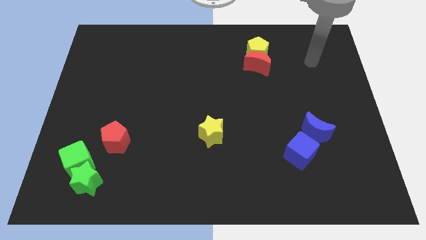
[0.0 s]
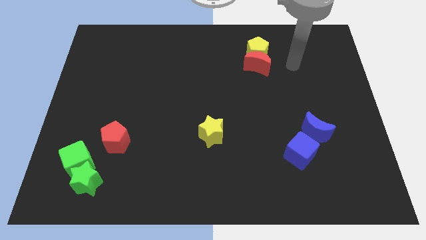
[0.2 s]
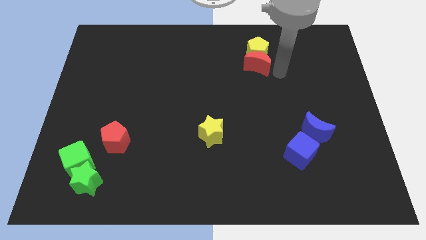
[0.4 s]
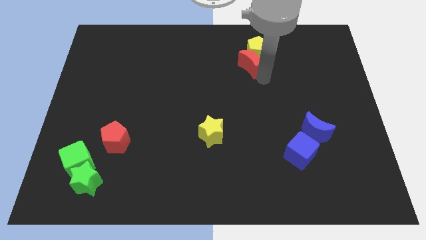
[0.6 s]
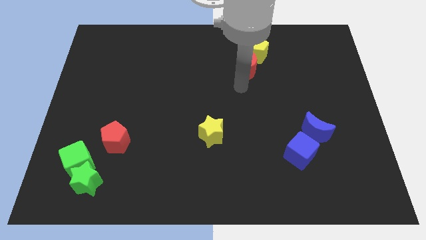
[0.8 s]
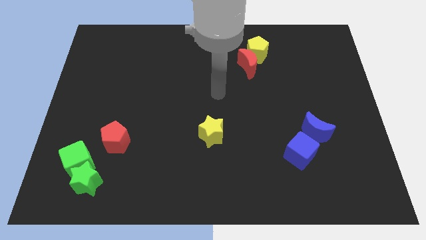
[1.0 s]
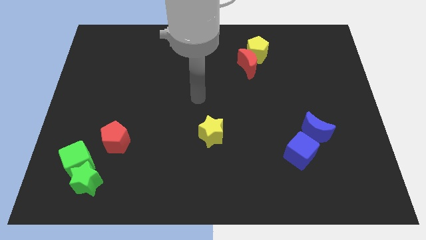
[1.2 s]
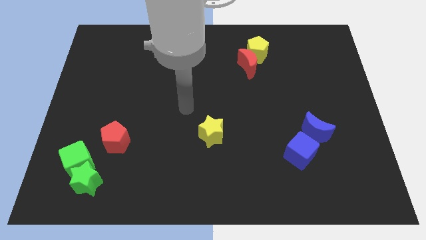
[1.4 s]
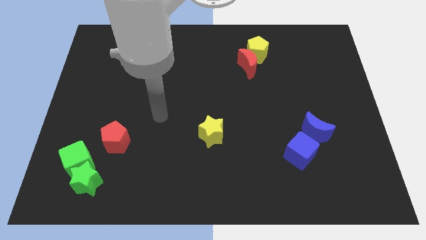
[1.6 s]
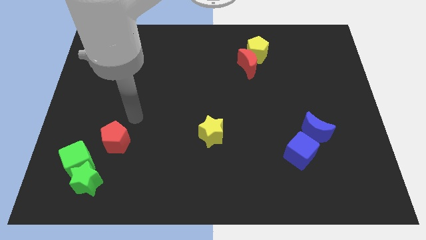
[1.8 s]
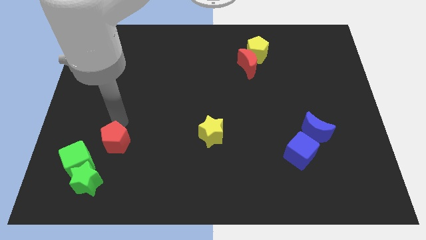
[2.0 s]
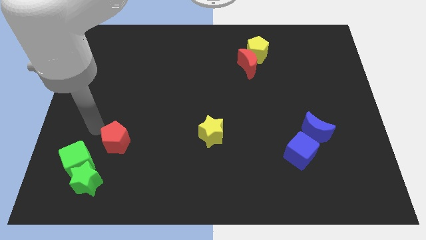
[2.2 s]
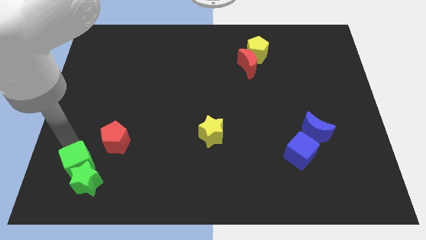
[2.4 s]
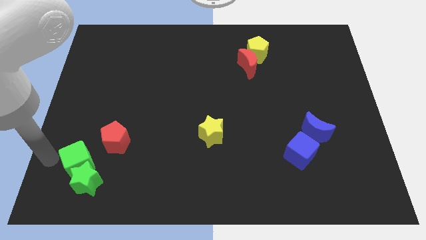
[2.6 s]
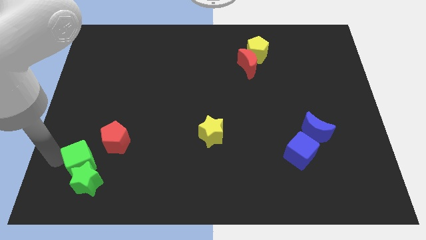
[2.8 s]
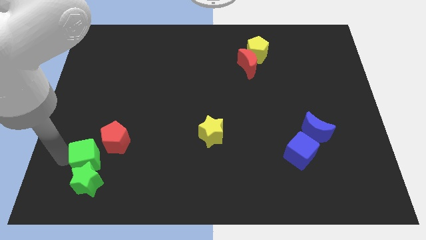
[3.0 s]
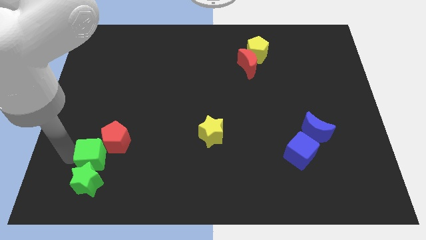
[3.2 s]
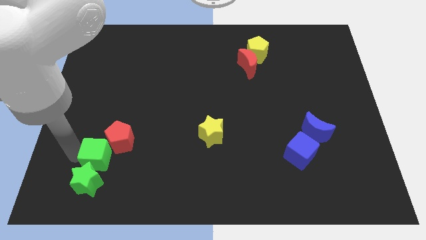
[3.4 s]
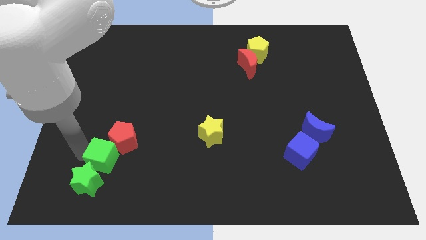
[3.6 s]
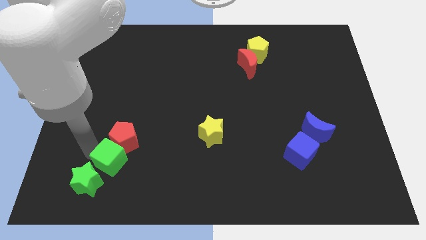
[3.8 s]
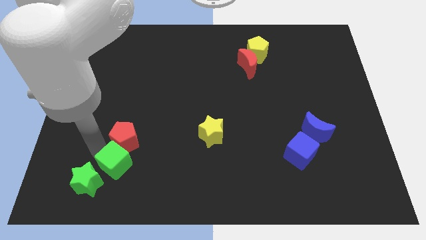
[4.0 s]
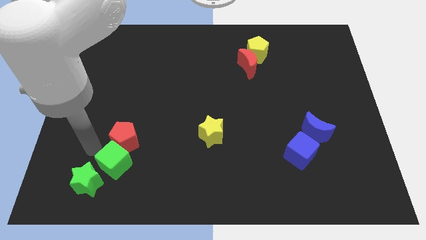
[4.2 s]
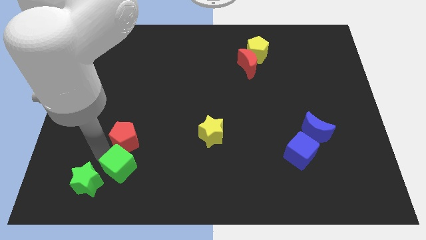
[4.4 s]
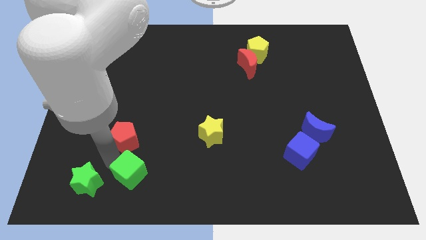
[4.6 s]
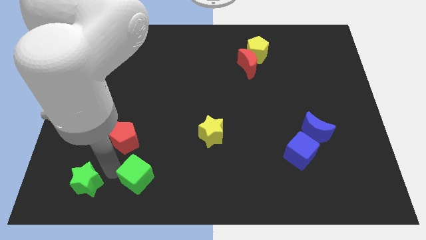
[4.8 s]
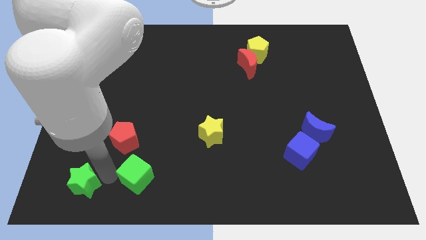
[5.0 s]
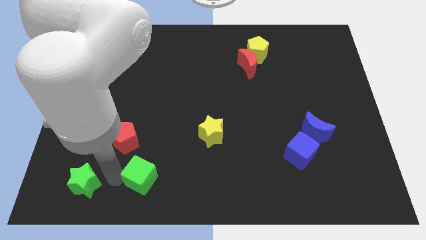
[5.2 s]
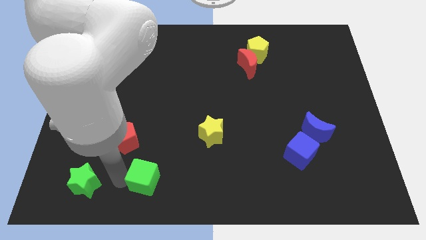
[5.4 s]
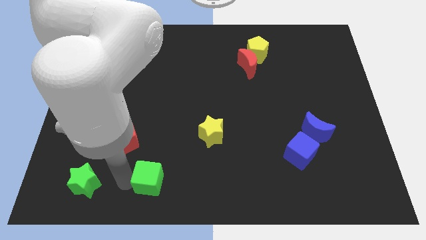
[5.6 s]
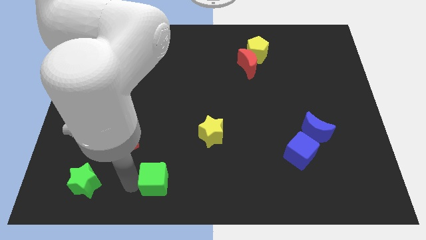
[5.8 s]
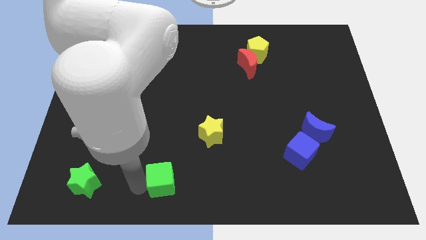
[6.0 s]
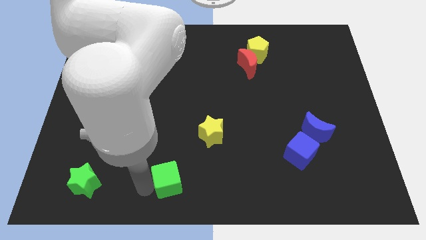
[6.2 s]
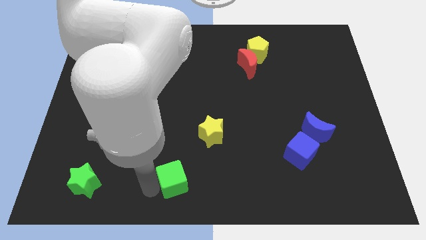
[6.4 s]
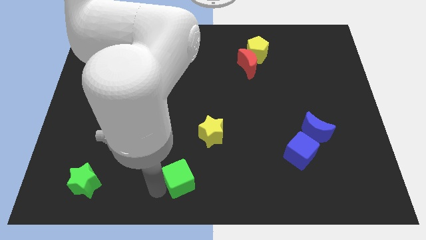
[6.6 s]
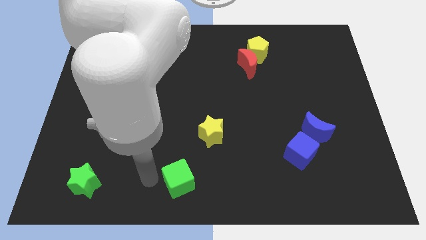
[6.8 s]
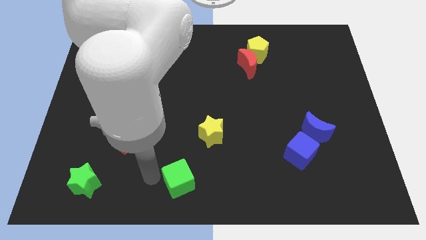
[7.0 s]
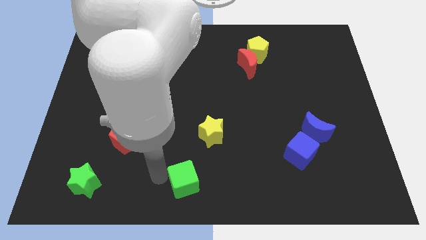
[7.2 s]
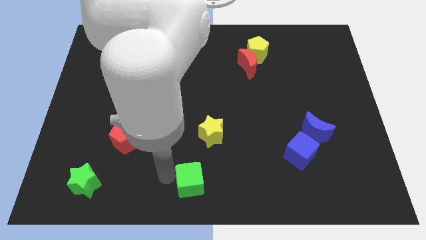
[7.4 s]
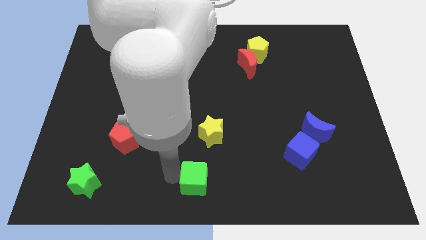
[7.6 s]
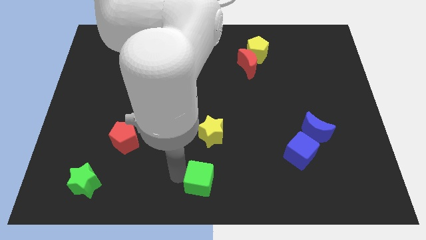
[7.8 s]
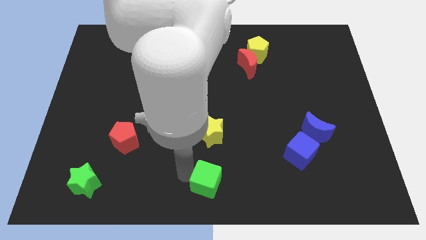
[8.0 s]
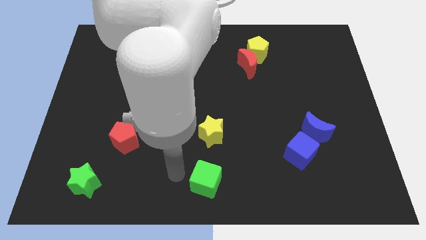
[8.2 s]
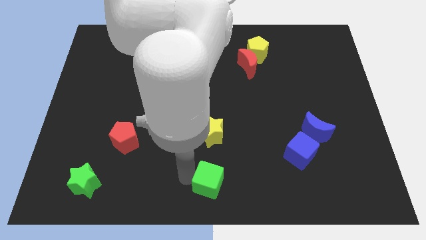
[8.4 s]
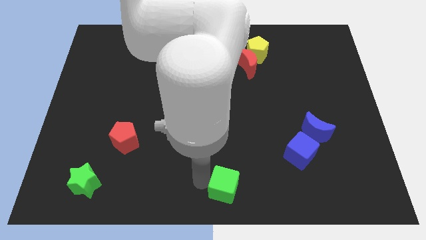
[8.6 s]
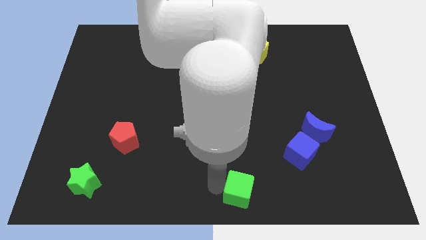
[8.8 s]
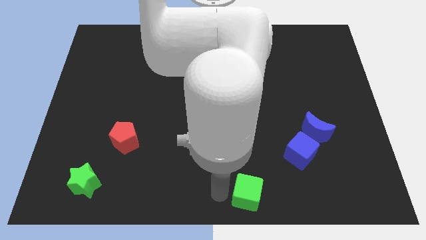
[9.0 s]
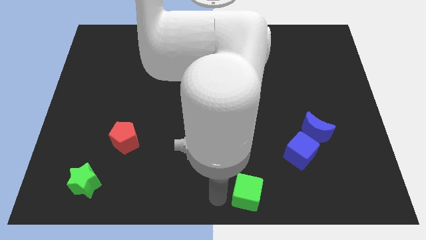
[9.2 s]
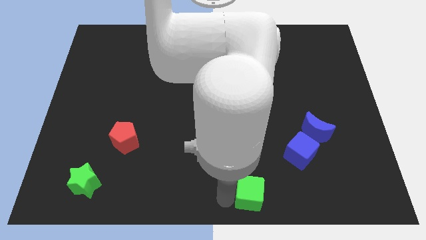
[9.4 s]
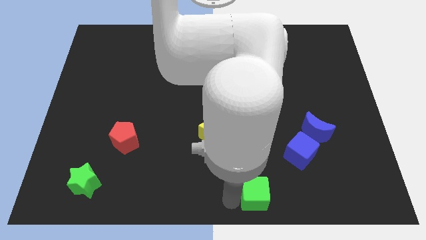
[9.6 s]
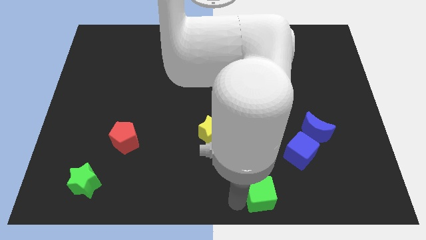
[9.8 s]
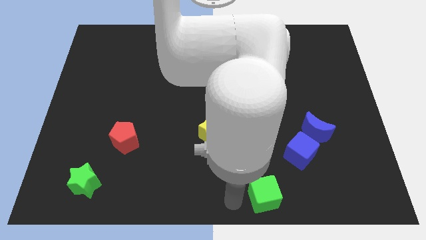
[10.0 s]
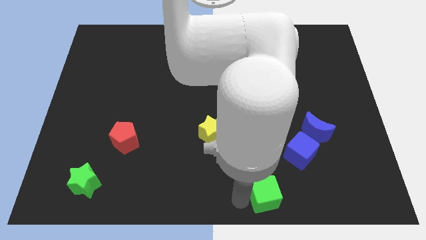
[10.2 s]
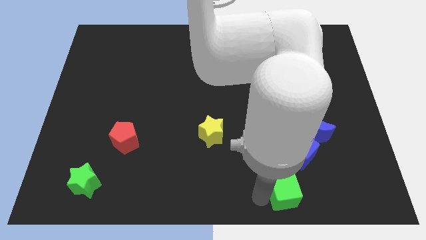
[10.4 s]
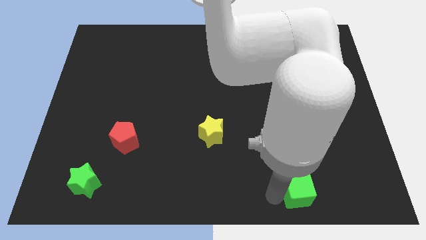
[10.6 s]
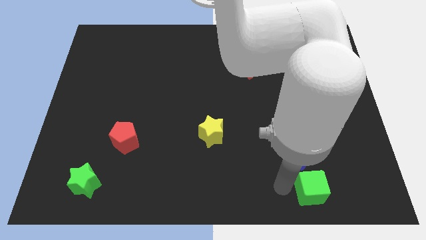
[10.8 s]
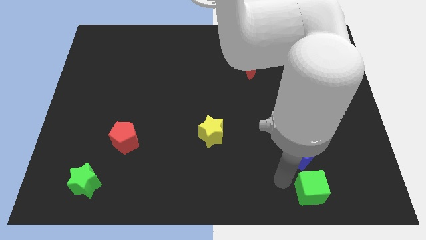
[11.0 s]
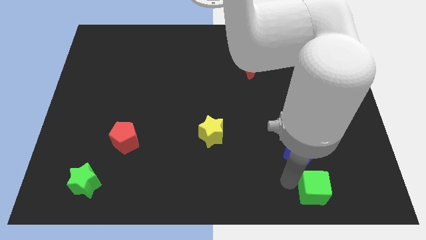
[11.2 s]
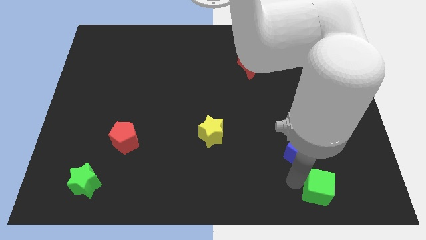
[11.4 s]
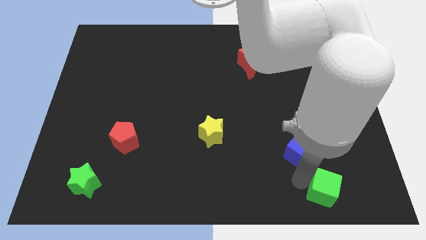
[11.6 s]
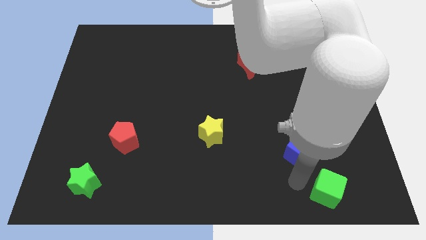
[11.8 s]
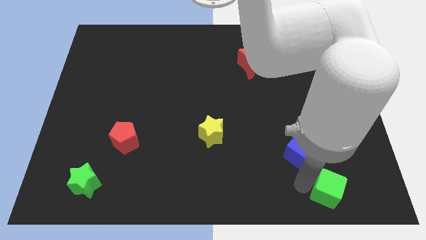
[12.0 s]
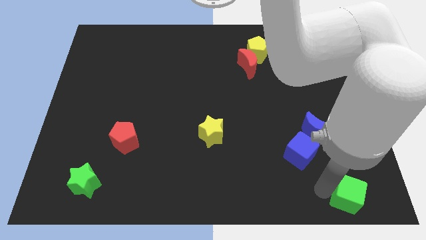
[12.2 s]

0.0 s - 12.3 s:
move the green cube to the bottom right

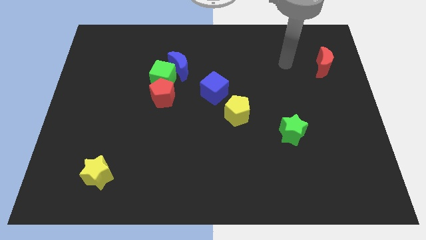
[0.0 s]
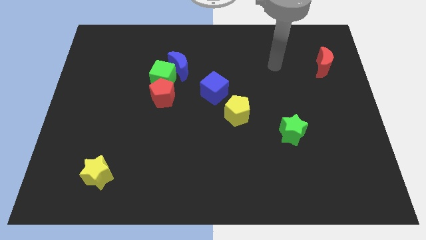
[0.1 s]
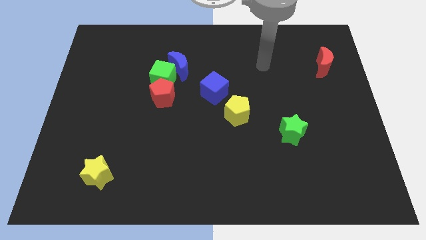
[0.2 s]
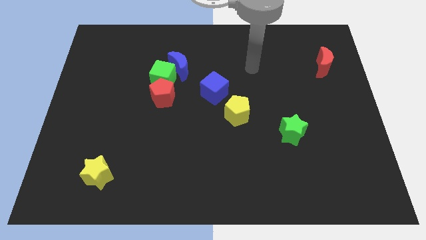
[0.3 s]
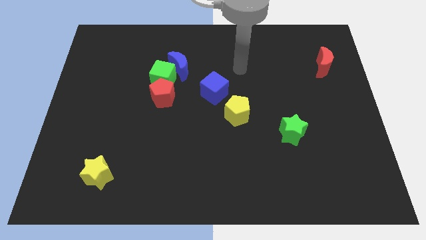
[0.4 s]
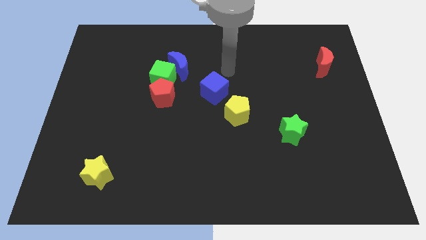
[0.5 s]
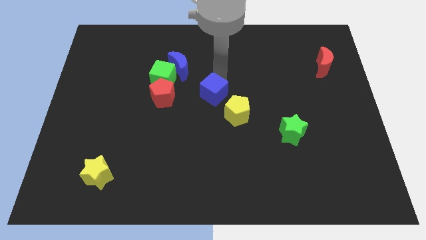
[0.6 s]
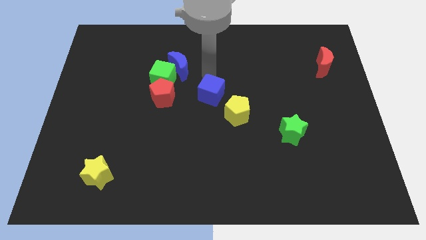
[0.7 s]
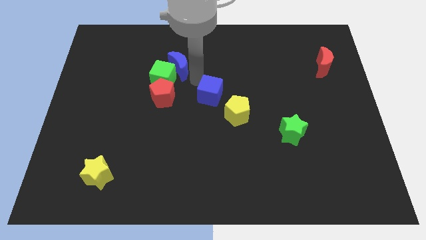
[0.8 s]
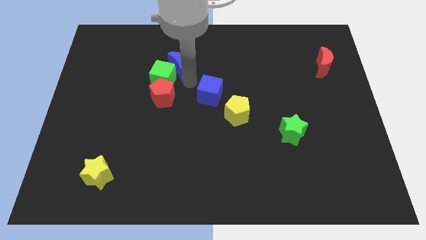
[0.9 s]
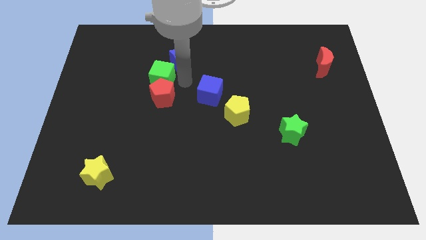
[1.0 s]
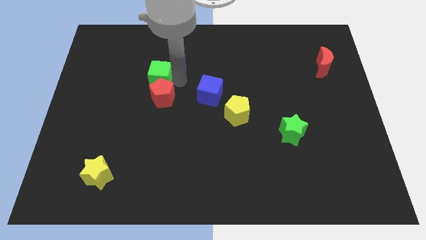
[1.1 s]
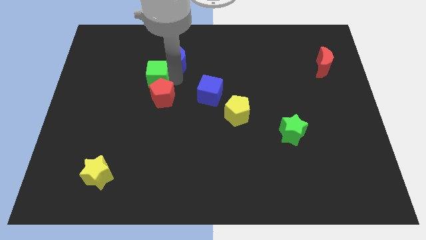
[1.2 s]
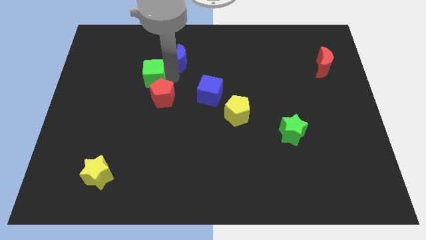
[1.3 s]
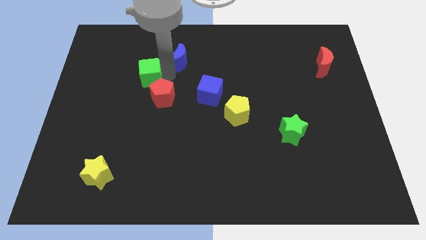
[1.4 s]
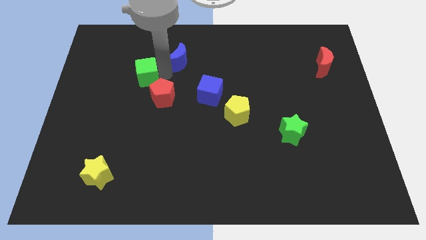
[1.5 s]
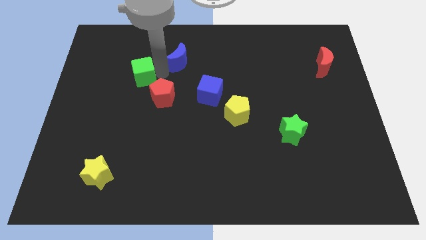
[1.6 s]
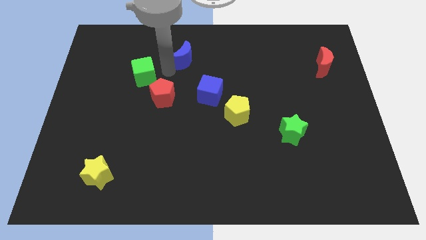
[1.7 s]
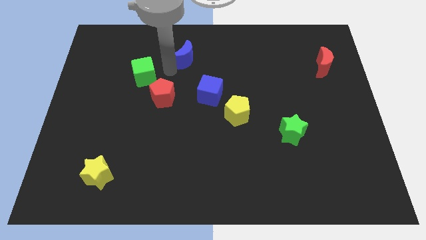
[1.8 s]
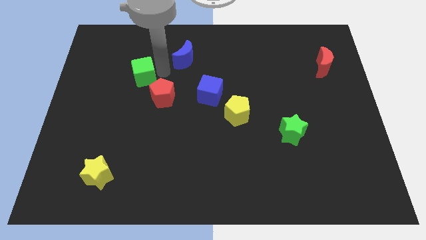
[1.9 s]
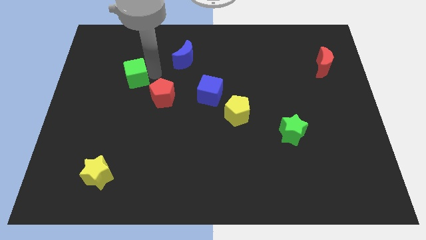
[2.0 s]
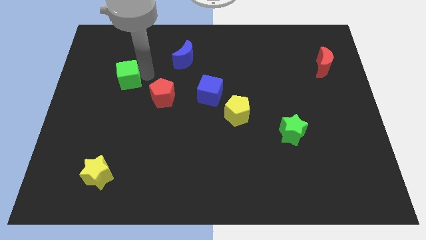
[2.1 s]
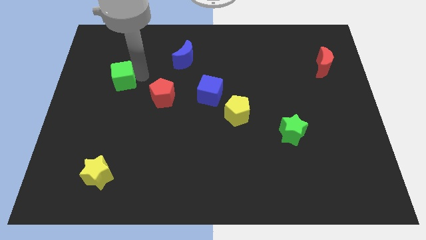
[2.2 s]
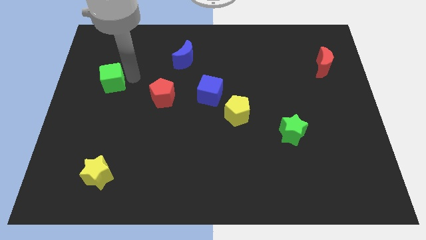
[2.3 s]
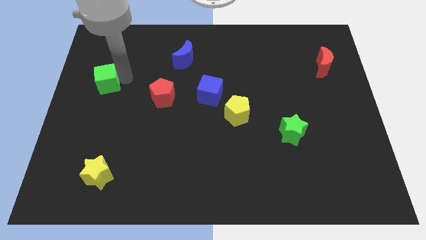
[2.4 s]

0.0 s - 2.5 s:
move the green cube to the center left
